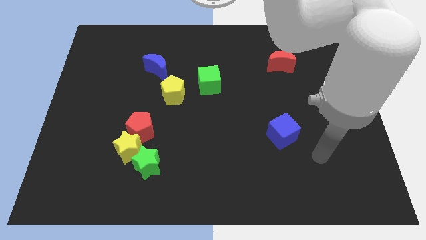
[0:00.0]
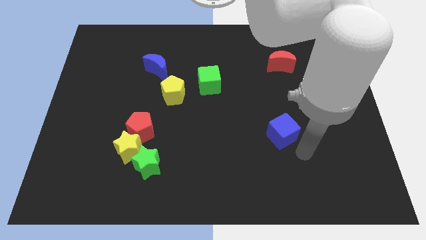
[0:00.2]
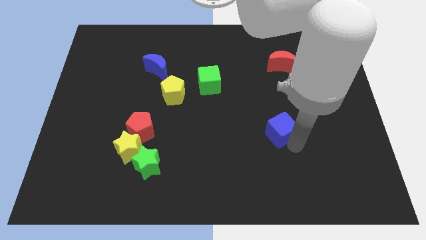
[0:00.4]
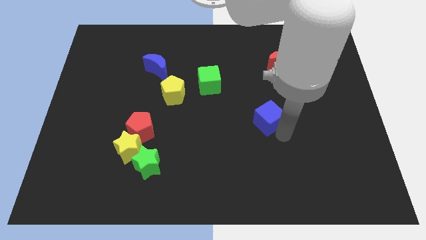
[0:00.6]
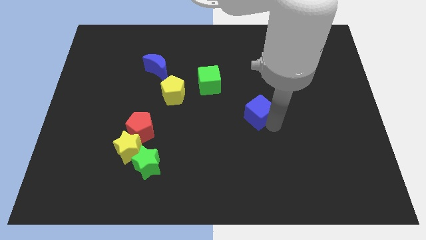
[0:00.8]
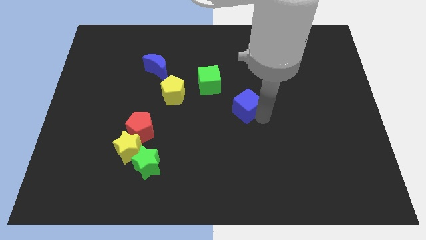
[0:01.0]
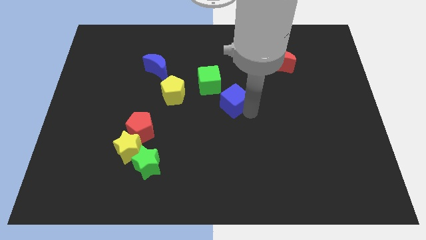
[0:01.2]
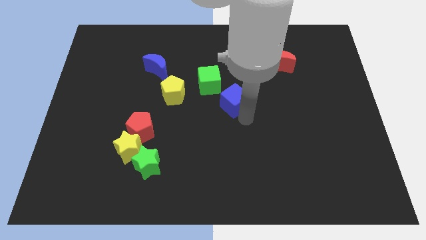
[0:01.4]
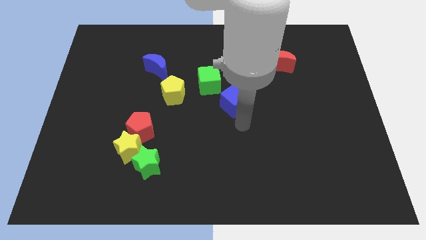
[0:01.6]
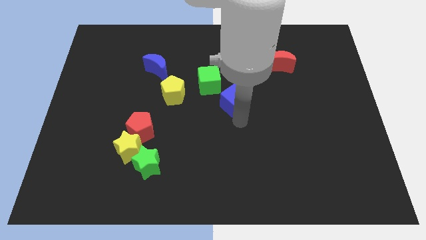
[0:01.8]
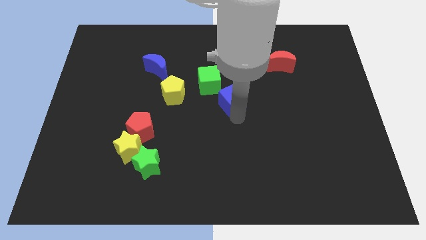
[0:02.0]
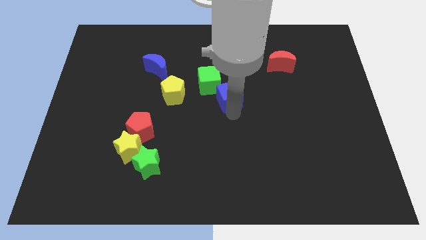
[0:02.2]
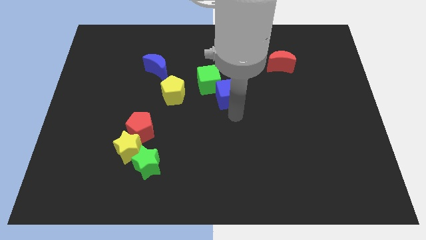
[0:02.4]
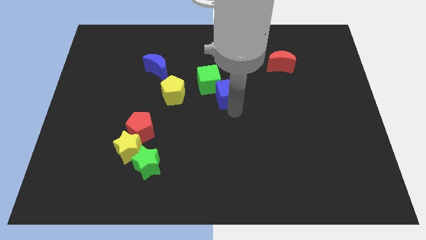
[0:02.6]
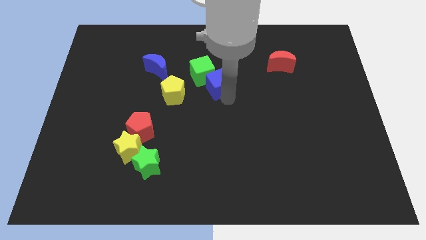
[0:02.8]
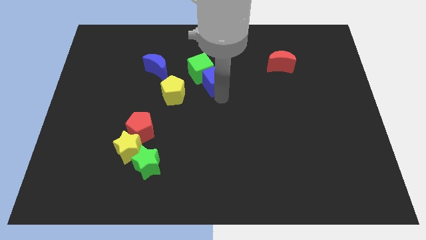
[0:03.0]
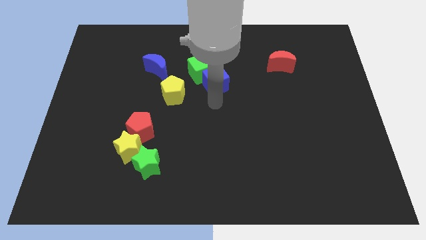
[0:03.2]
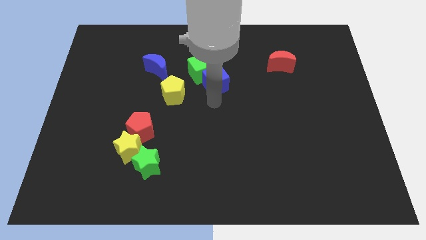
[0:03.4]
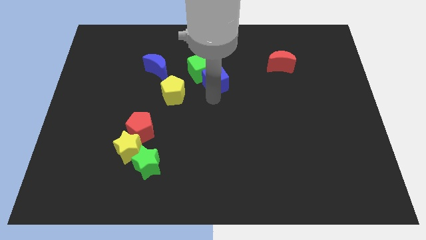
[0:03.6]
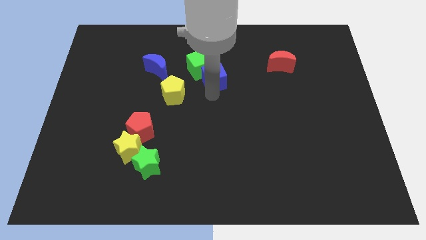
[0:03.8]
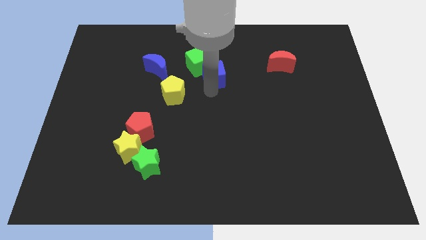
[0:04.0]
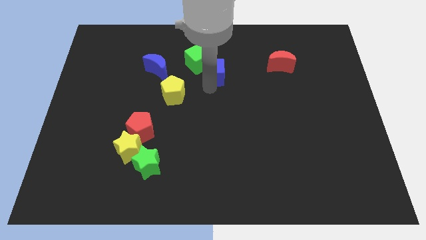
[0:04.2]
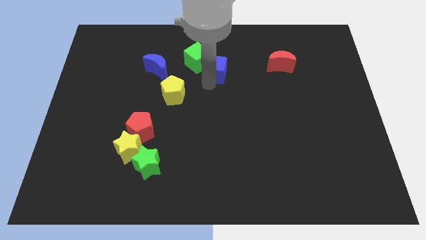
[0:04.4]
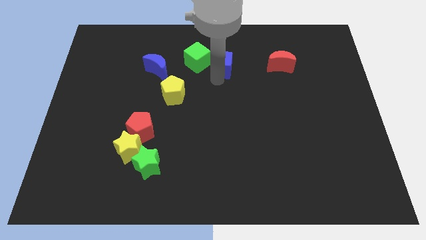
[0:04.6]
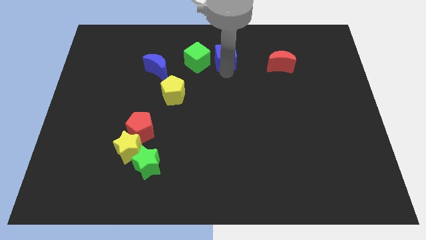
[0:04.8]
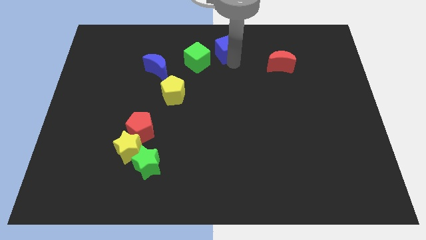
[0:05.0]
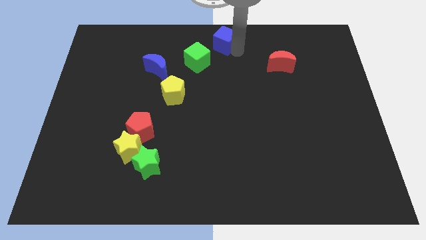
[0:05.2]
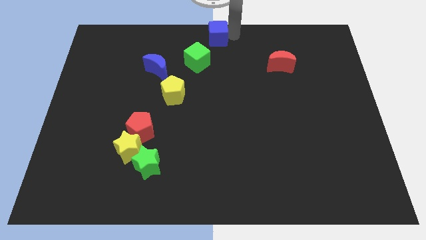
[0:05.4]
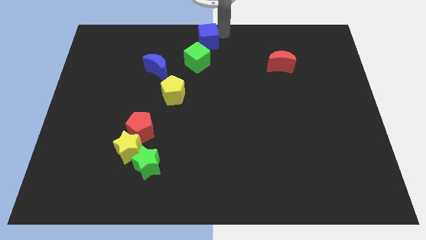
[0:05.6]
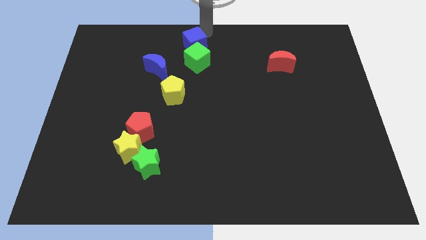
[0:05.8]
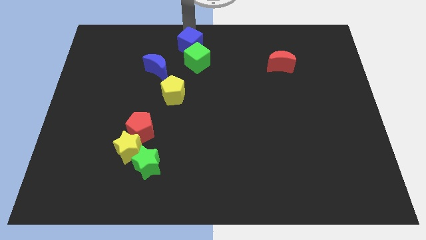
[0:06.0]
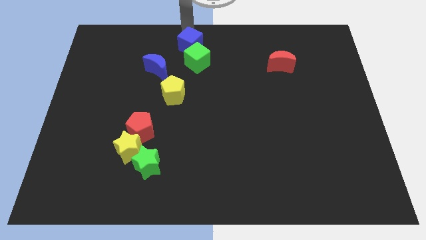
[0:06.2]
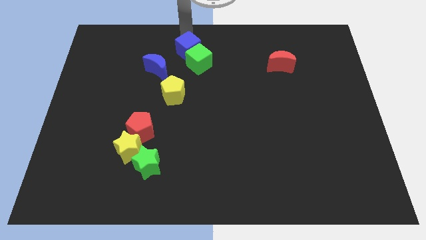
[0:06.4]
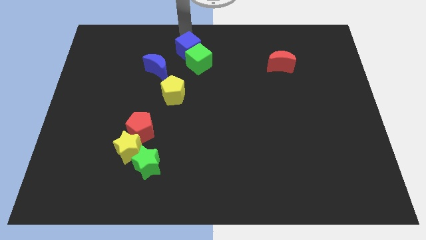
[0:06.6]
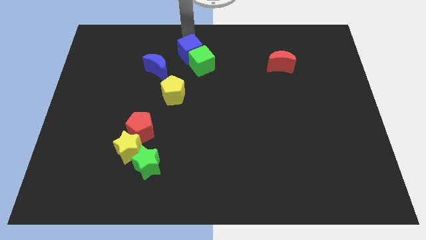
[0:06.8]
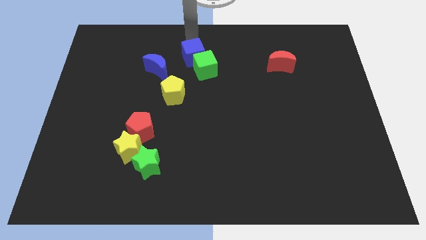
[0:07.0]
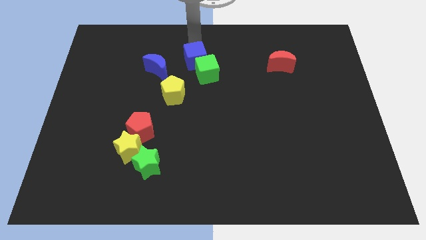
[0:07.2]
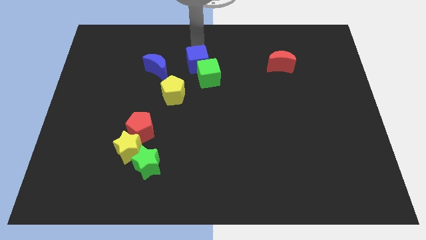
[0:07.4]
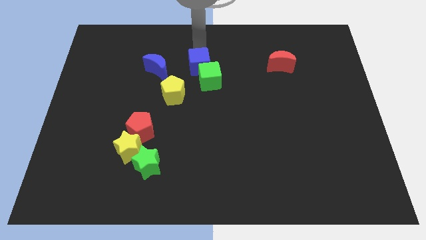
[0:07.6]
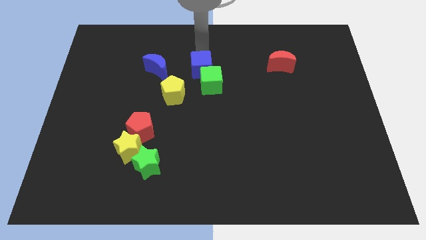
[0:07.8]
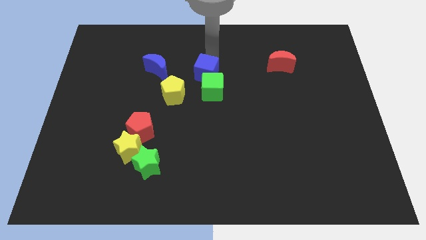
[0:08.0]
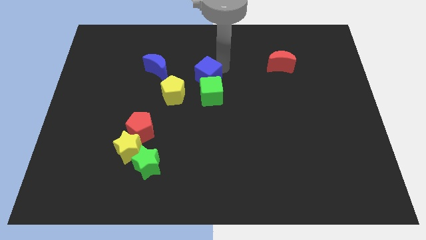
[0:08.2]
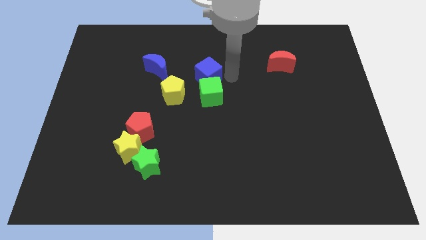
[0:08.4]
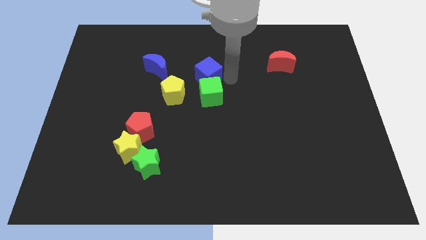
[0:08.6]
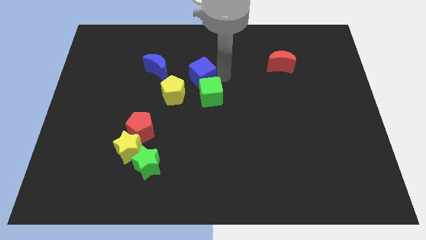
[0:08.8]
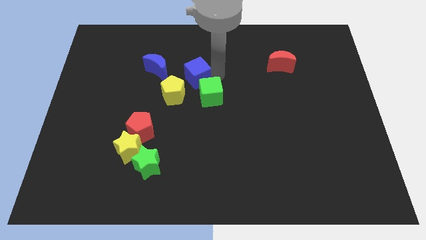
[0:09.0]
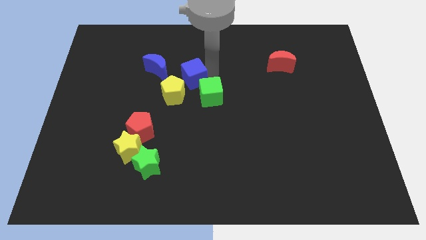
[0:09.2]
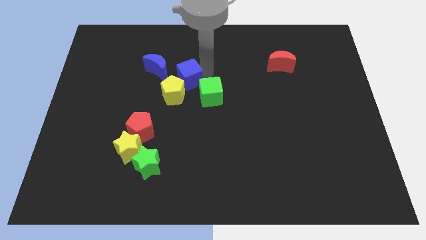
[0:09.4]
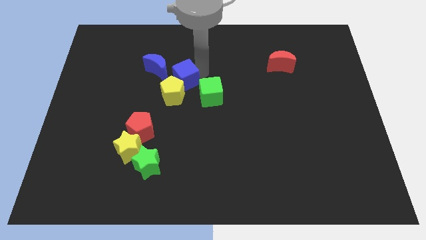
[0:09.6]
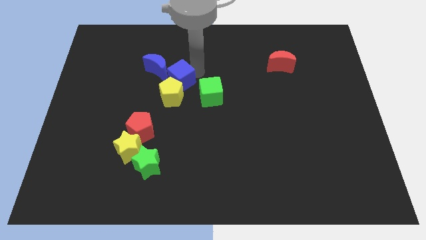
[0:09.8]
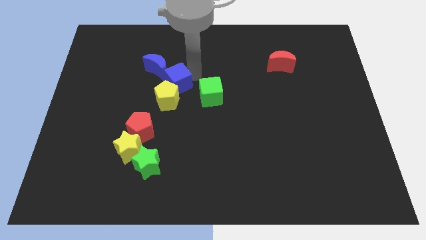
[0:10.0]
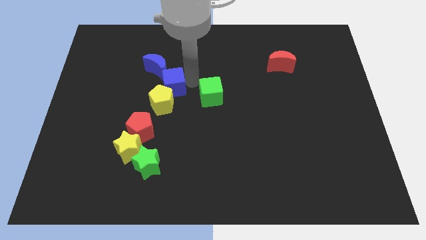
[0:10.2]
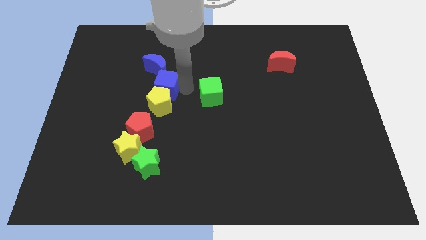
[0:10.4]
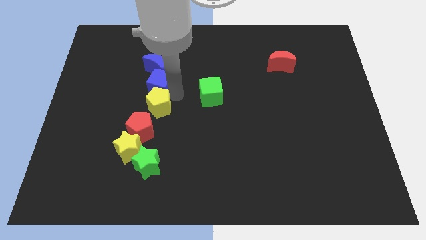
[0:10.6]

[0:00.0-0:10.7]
move the blue cube towards the blue moon
